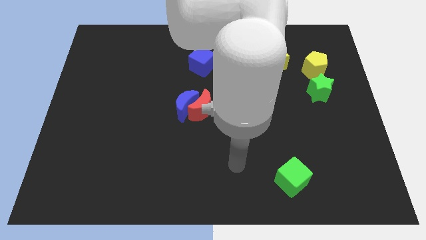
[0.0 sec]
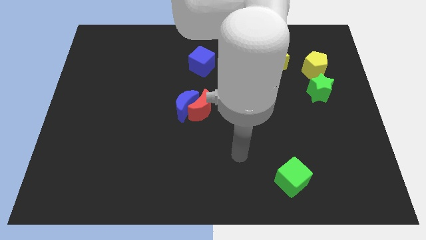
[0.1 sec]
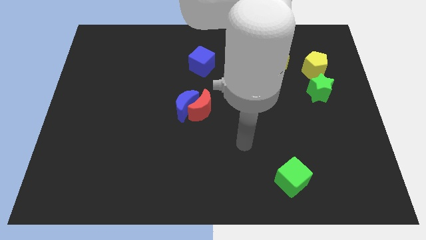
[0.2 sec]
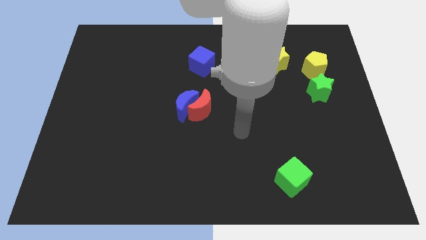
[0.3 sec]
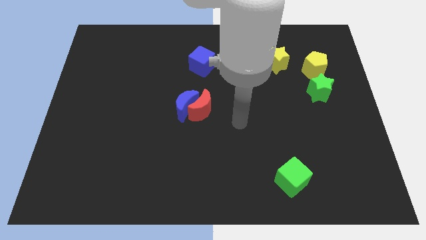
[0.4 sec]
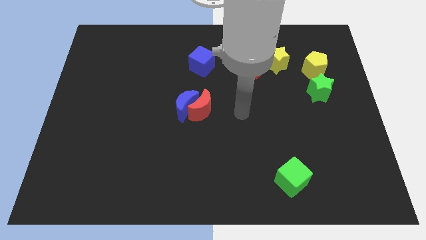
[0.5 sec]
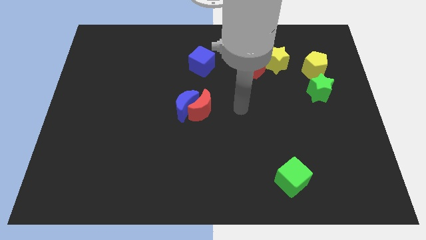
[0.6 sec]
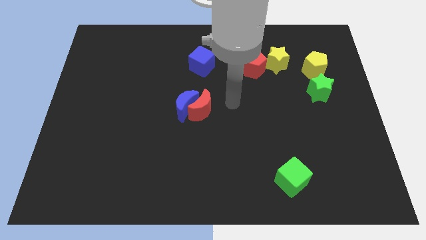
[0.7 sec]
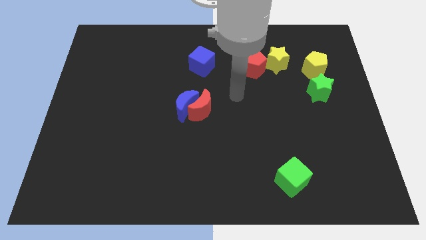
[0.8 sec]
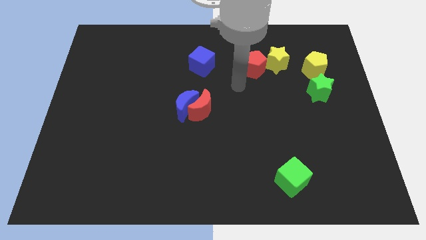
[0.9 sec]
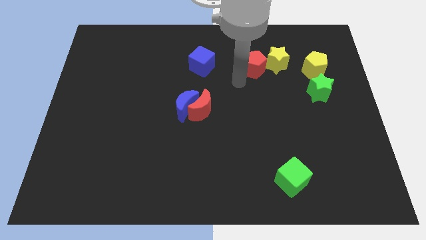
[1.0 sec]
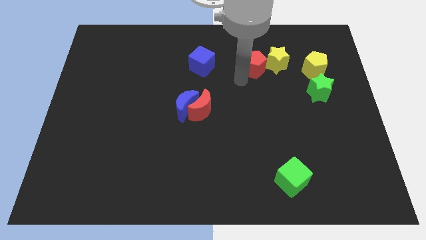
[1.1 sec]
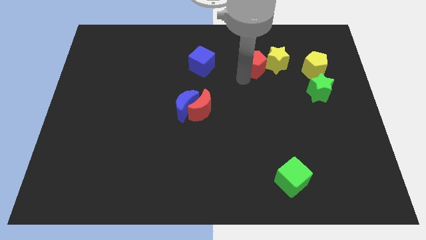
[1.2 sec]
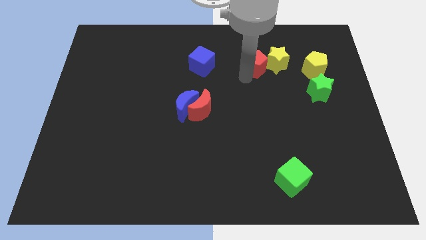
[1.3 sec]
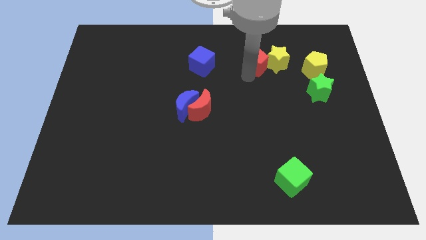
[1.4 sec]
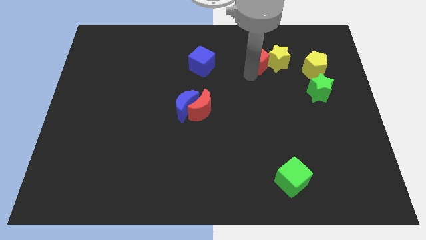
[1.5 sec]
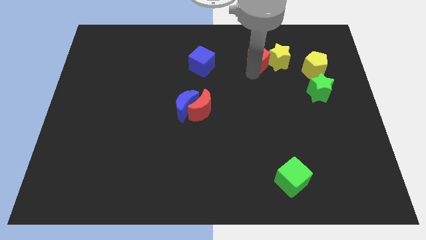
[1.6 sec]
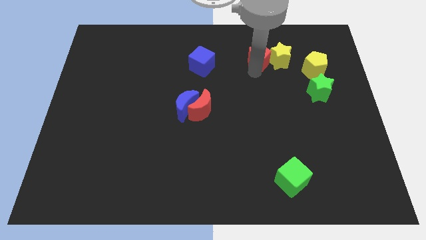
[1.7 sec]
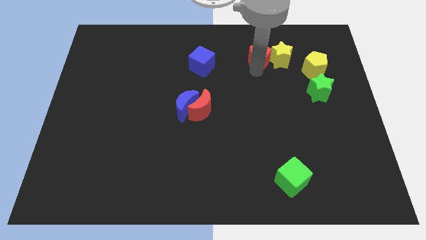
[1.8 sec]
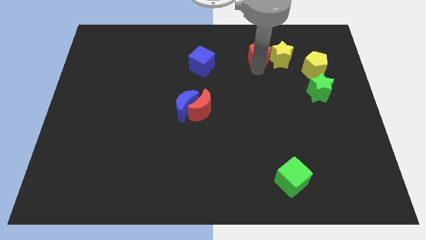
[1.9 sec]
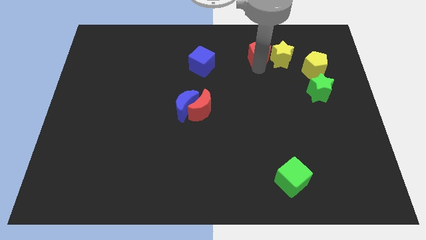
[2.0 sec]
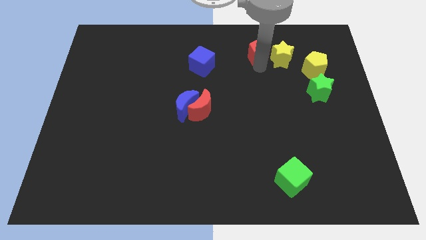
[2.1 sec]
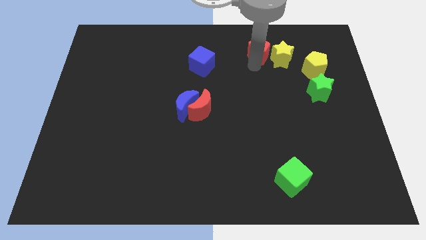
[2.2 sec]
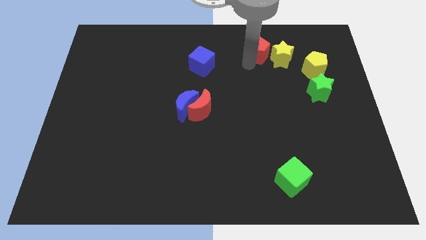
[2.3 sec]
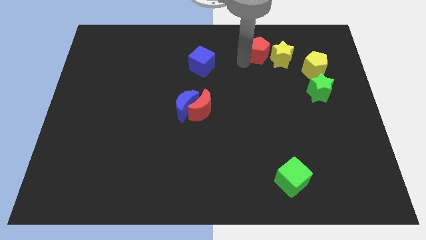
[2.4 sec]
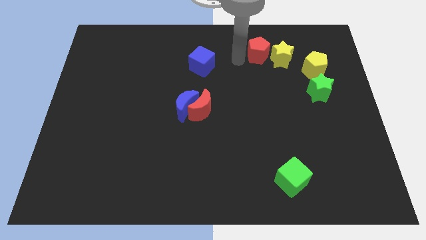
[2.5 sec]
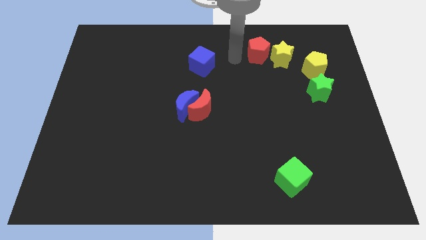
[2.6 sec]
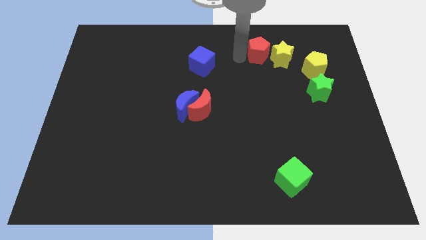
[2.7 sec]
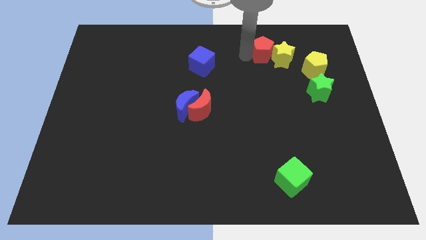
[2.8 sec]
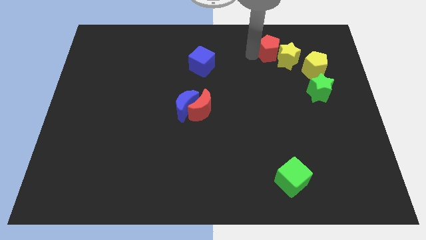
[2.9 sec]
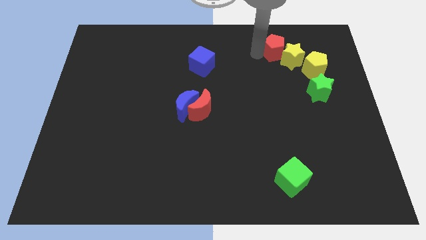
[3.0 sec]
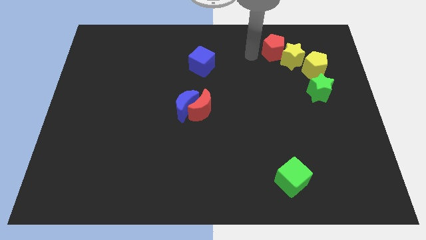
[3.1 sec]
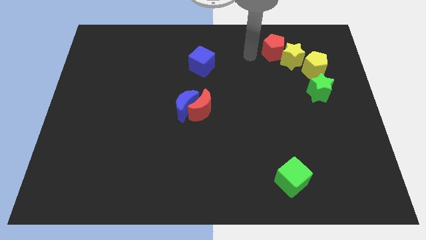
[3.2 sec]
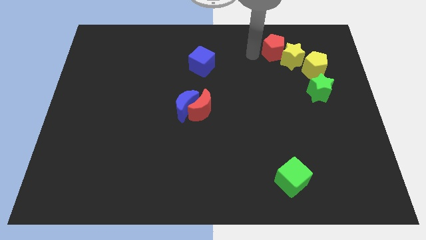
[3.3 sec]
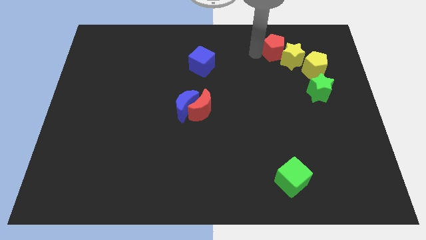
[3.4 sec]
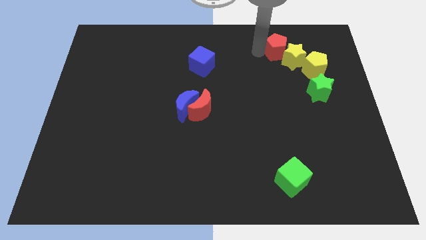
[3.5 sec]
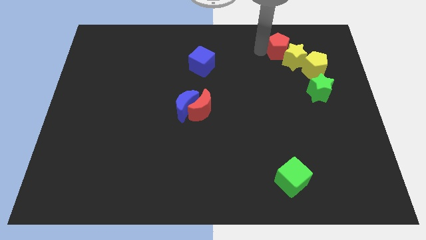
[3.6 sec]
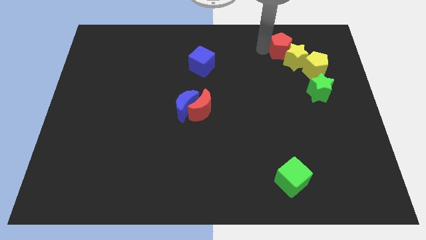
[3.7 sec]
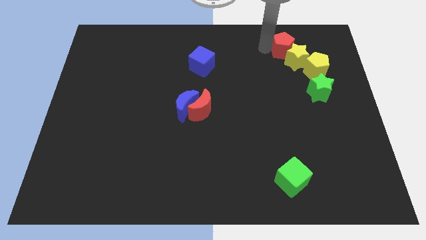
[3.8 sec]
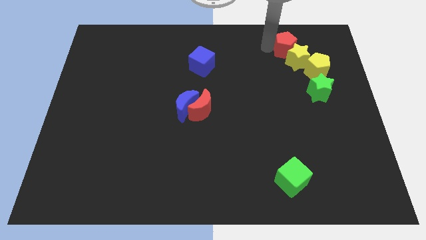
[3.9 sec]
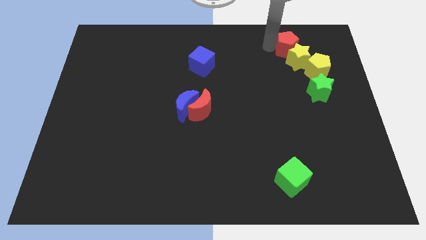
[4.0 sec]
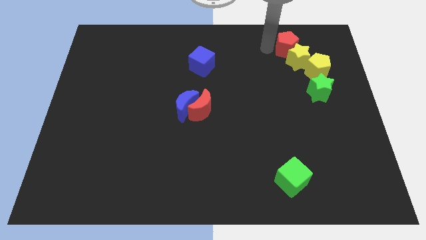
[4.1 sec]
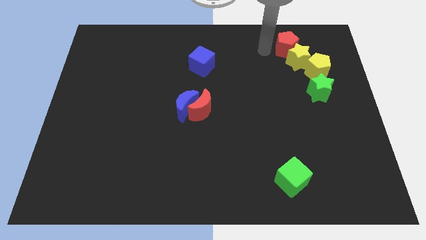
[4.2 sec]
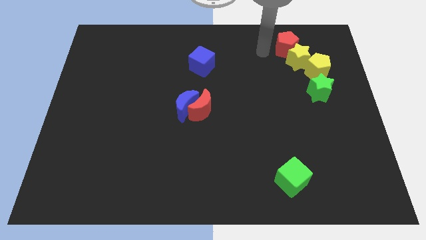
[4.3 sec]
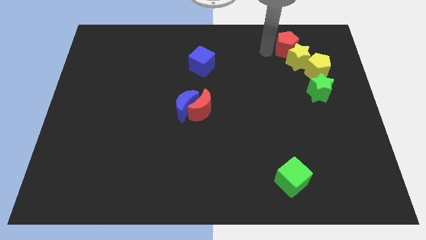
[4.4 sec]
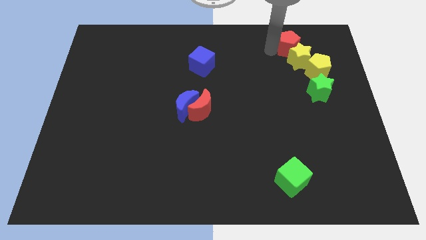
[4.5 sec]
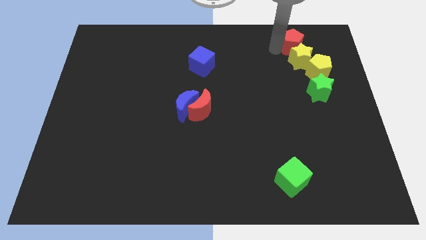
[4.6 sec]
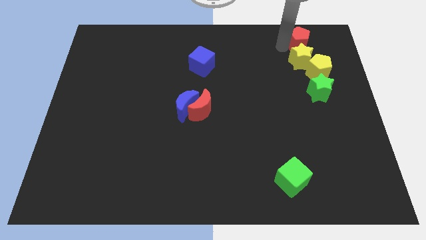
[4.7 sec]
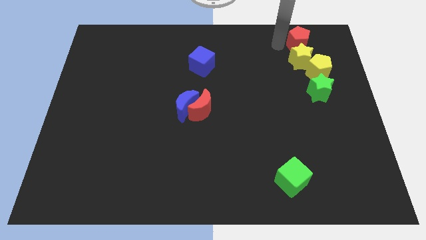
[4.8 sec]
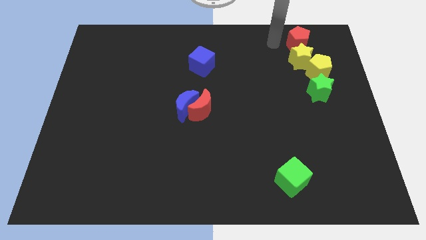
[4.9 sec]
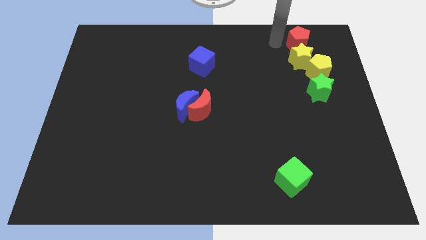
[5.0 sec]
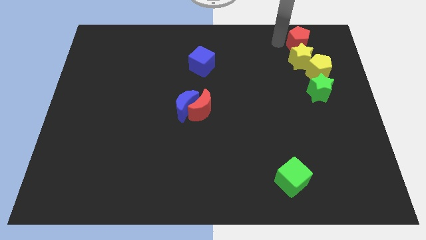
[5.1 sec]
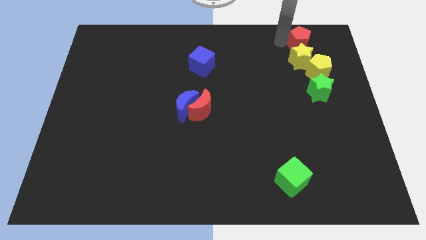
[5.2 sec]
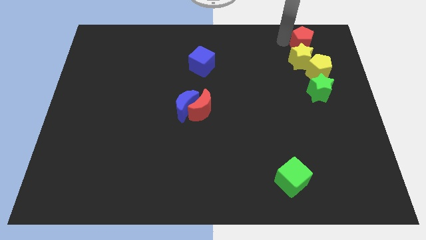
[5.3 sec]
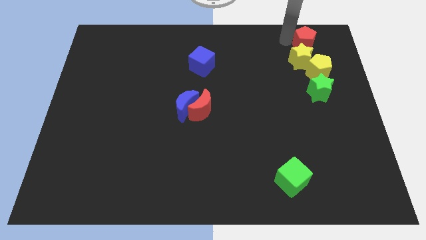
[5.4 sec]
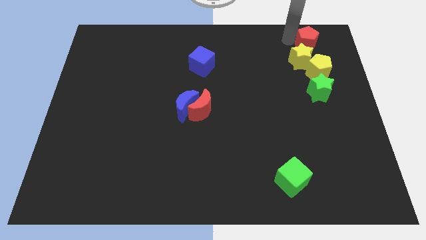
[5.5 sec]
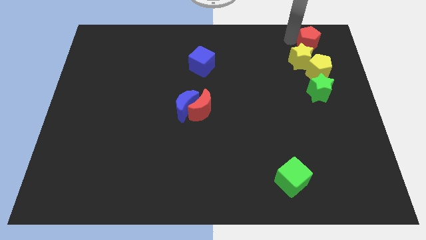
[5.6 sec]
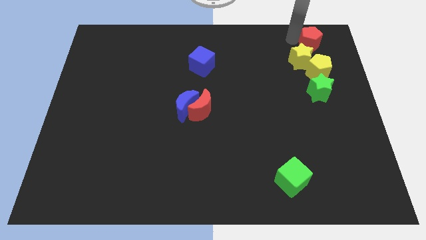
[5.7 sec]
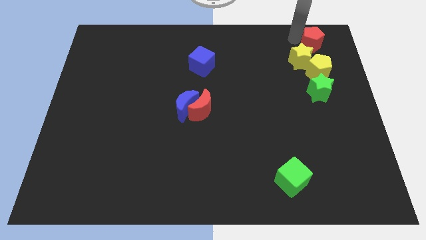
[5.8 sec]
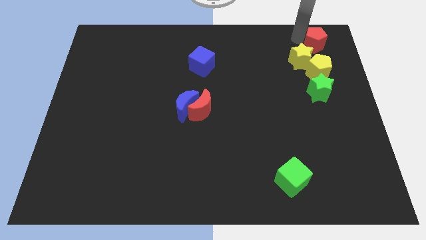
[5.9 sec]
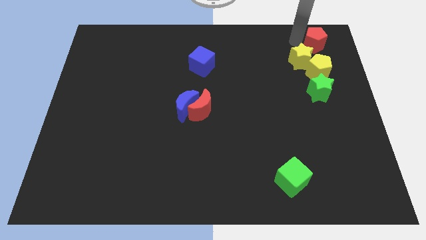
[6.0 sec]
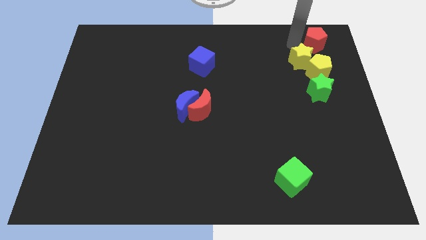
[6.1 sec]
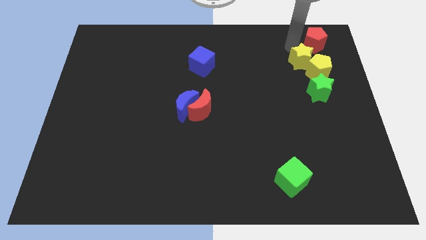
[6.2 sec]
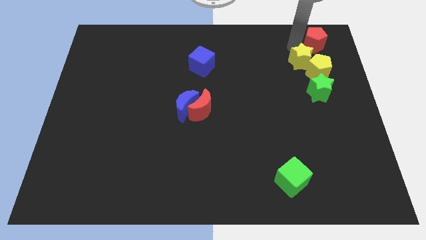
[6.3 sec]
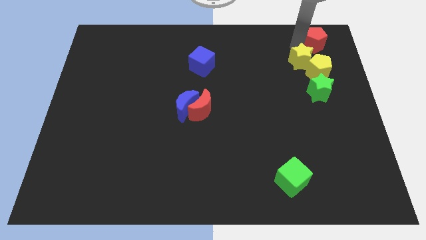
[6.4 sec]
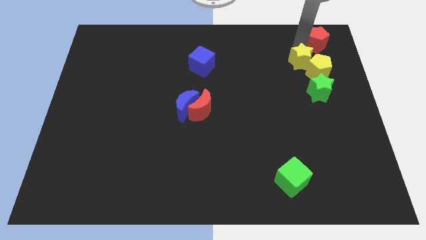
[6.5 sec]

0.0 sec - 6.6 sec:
put the red pentagon to the top right corner
